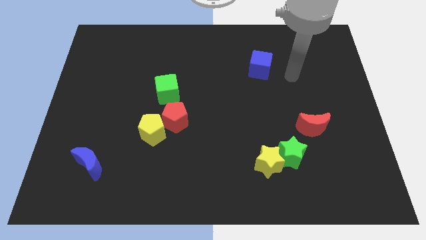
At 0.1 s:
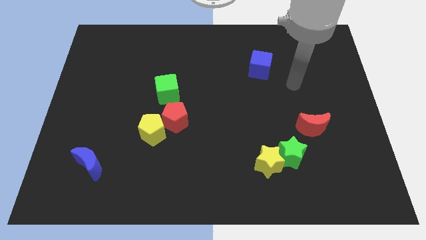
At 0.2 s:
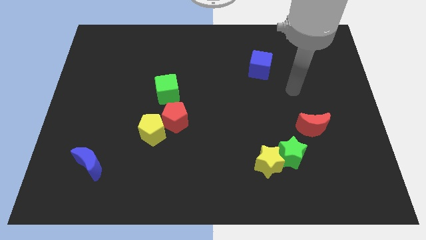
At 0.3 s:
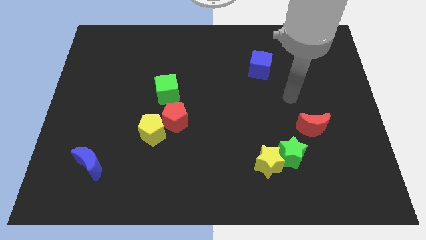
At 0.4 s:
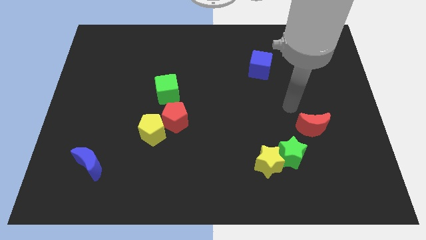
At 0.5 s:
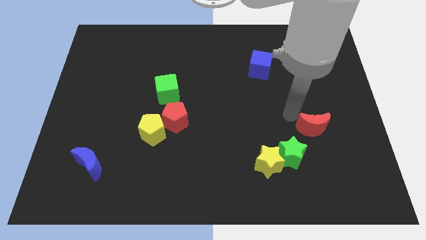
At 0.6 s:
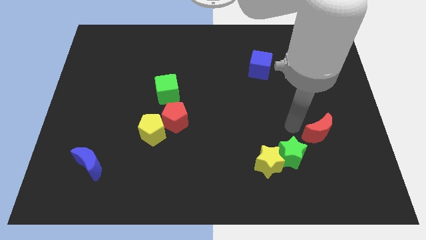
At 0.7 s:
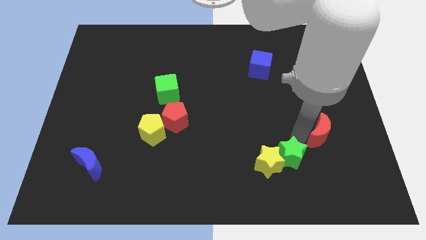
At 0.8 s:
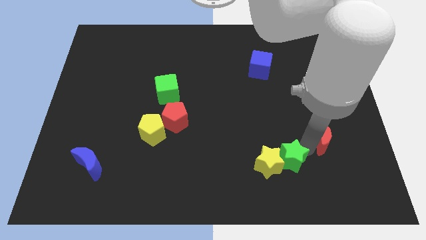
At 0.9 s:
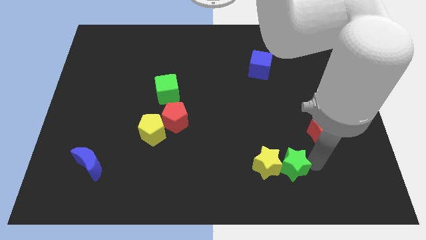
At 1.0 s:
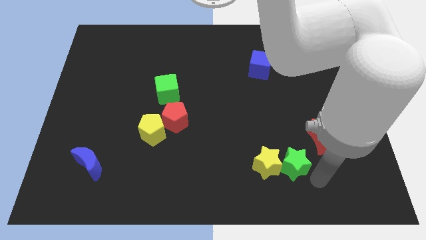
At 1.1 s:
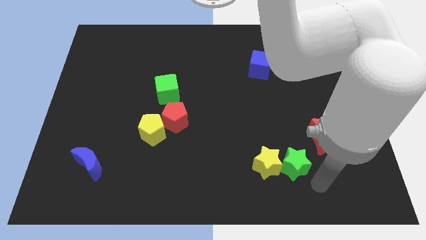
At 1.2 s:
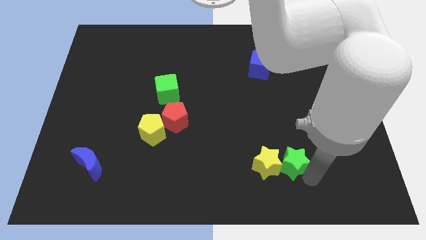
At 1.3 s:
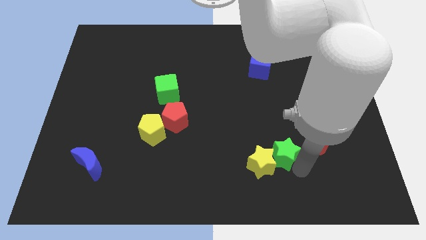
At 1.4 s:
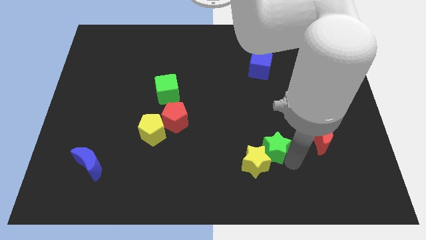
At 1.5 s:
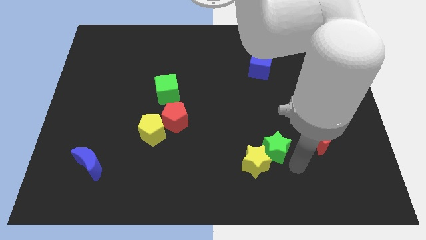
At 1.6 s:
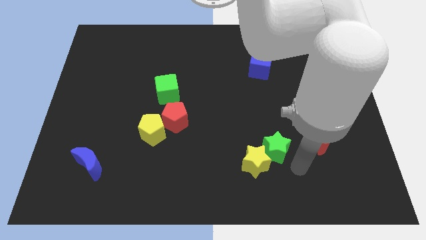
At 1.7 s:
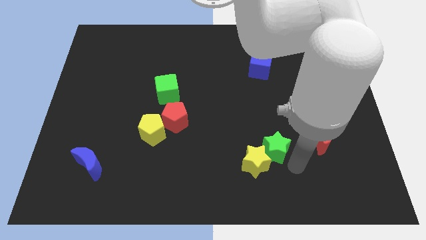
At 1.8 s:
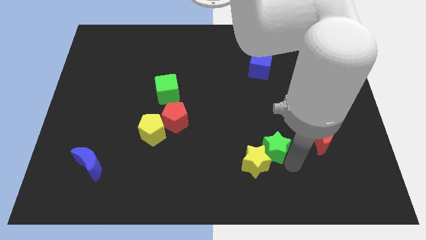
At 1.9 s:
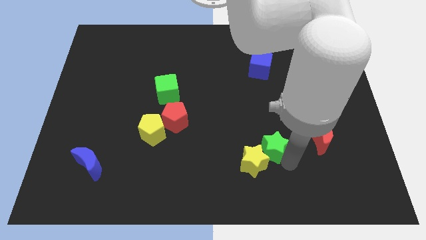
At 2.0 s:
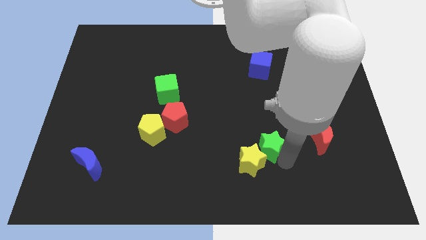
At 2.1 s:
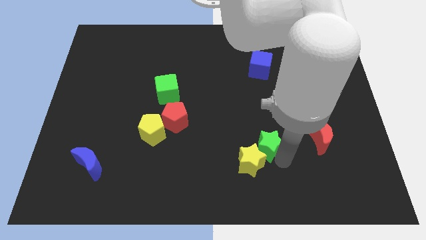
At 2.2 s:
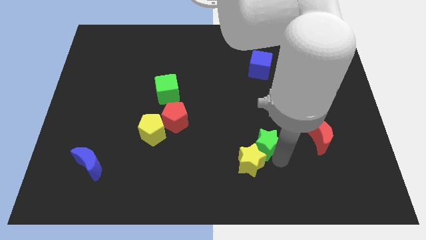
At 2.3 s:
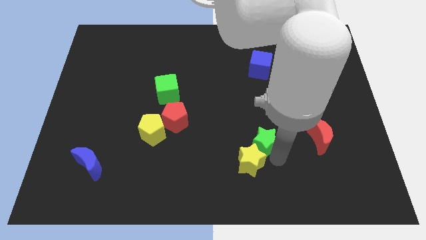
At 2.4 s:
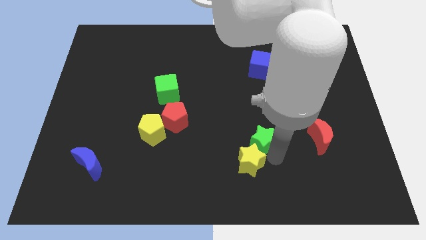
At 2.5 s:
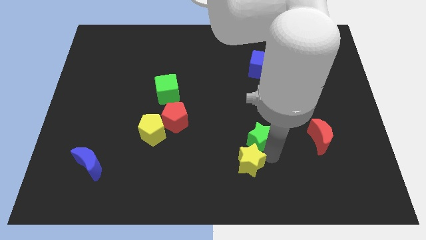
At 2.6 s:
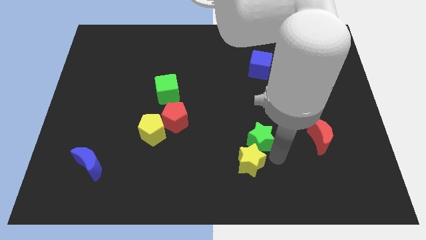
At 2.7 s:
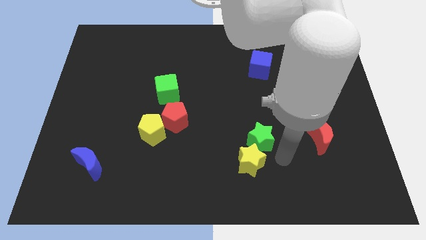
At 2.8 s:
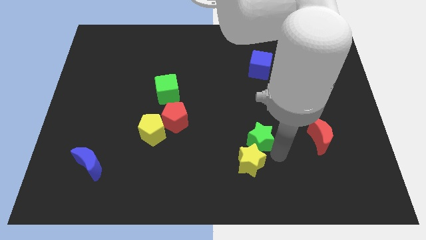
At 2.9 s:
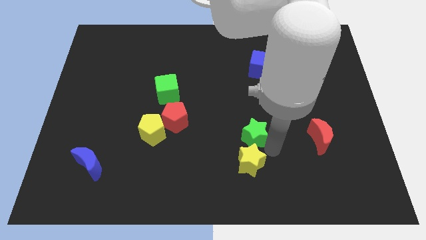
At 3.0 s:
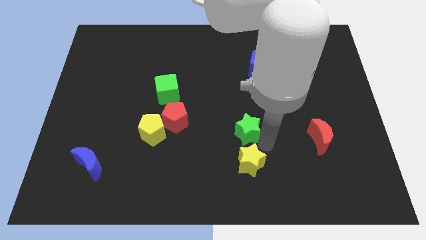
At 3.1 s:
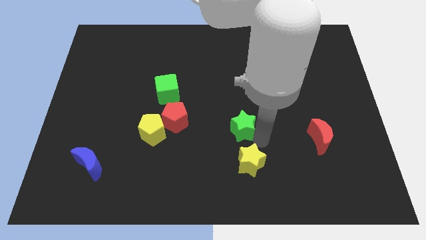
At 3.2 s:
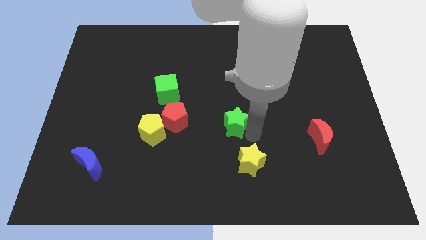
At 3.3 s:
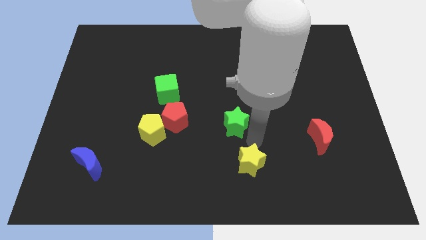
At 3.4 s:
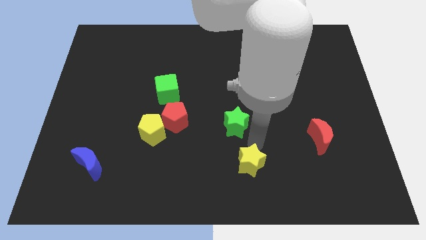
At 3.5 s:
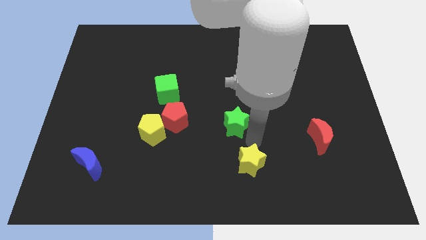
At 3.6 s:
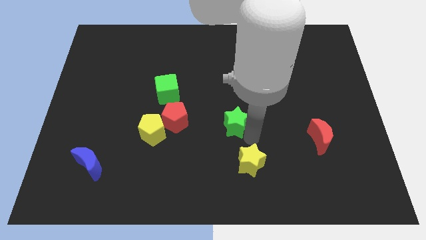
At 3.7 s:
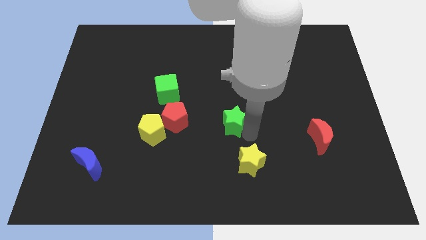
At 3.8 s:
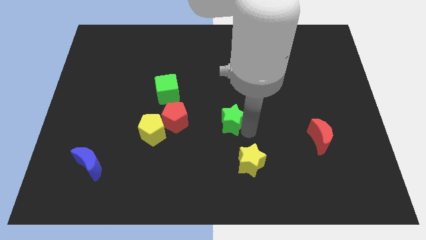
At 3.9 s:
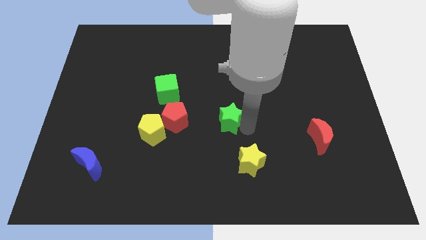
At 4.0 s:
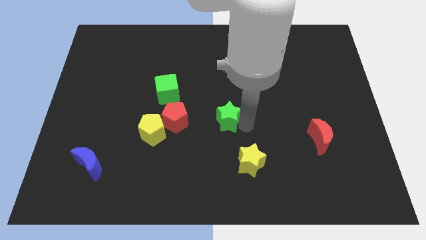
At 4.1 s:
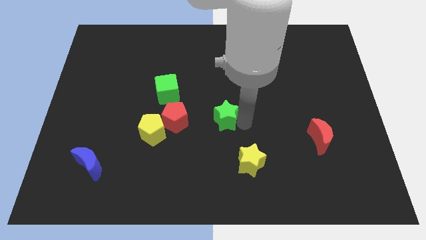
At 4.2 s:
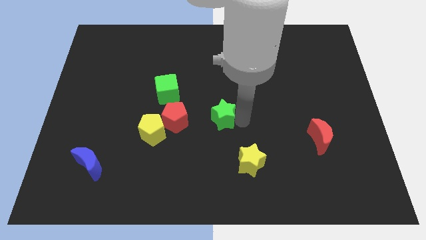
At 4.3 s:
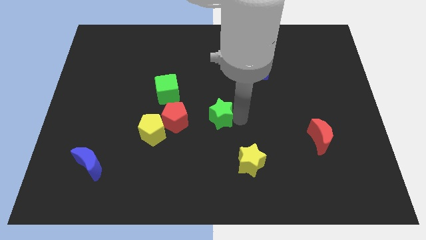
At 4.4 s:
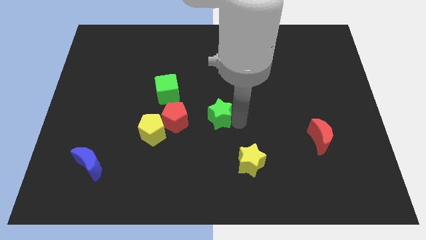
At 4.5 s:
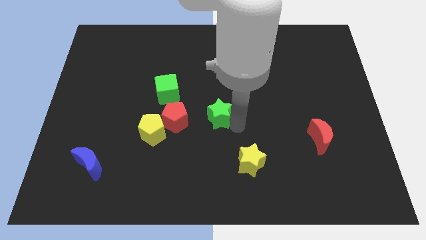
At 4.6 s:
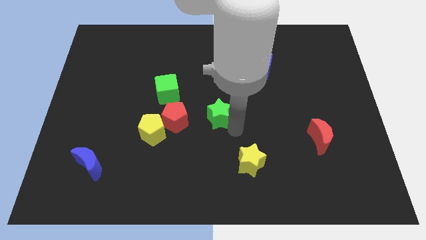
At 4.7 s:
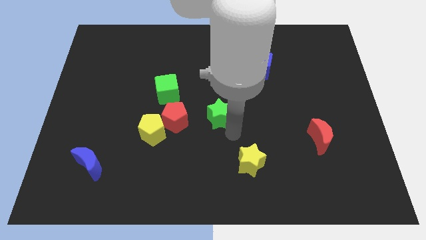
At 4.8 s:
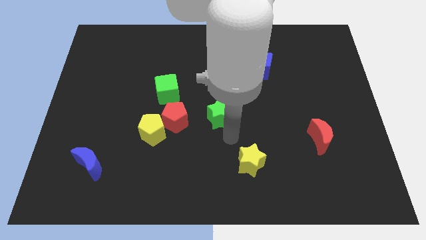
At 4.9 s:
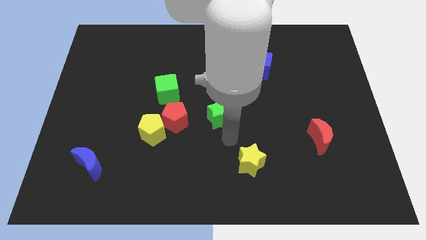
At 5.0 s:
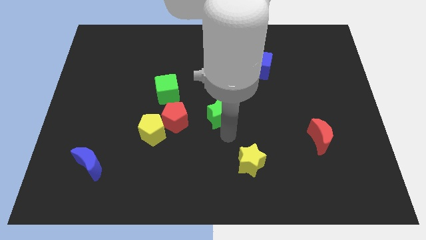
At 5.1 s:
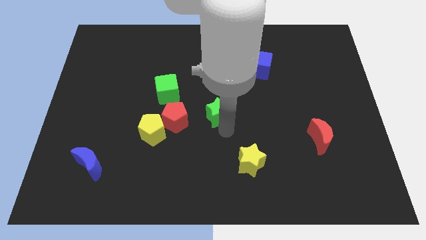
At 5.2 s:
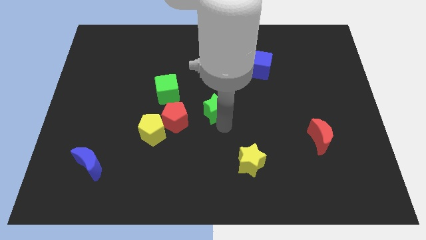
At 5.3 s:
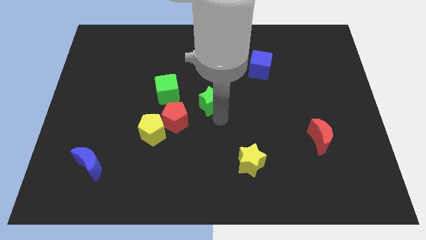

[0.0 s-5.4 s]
slide the green star diagonally up and left

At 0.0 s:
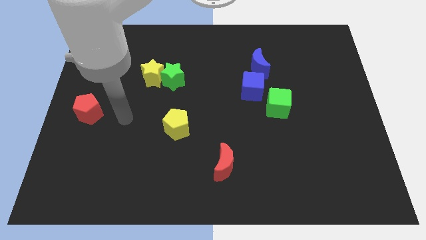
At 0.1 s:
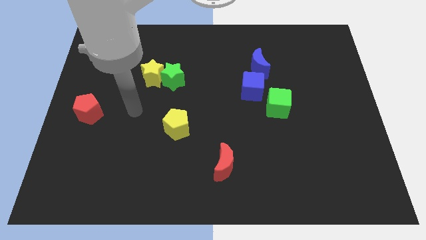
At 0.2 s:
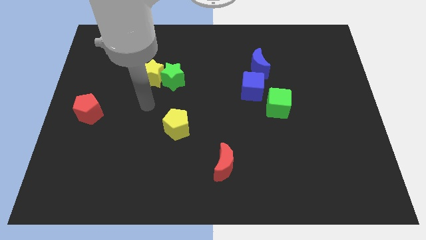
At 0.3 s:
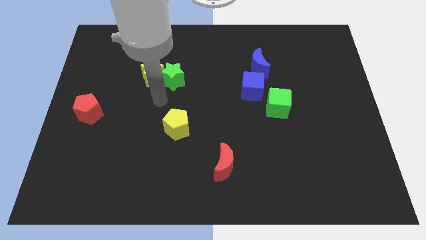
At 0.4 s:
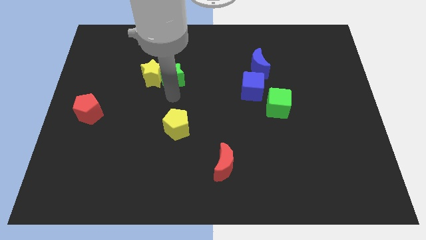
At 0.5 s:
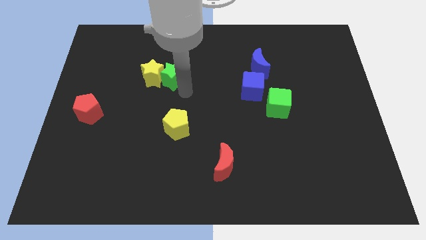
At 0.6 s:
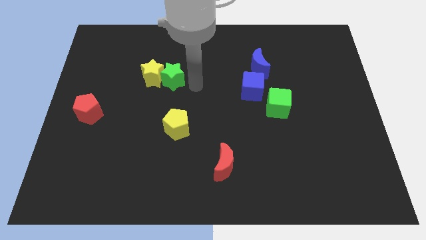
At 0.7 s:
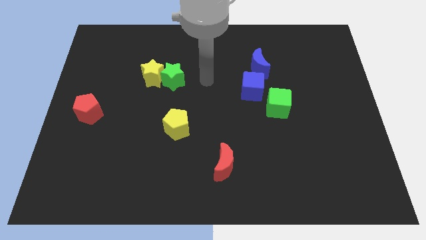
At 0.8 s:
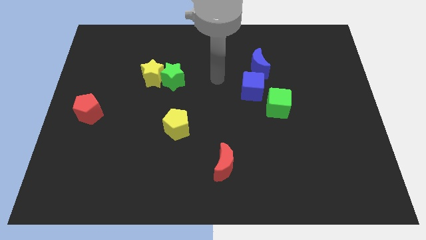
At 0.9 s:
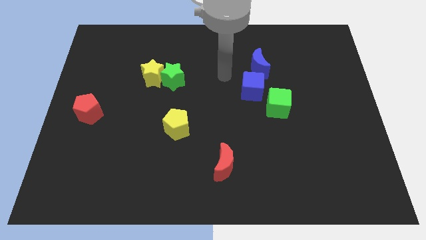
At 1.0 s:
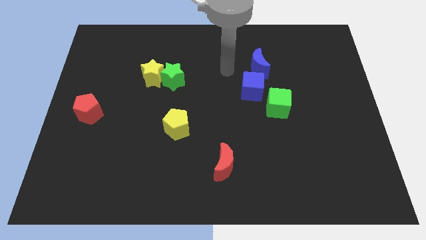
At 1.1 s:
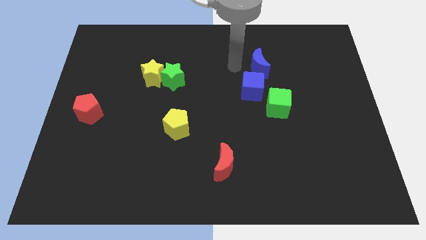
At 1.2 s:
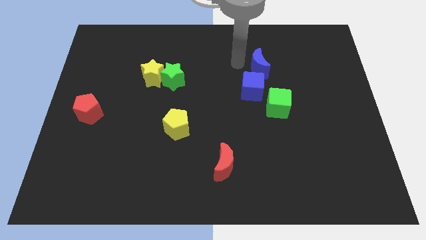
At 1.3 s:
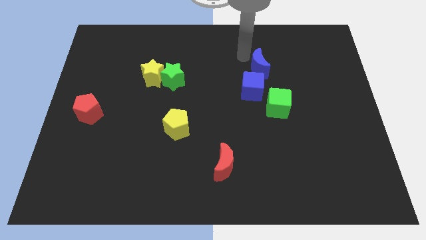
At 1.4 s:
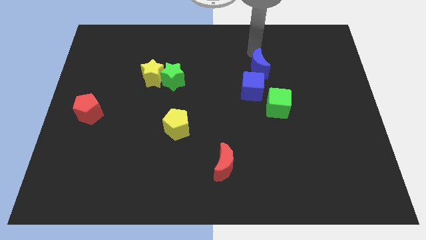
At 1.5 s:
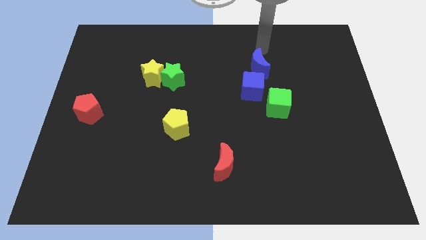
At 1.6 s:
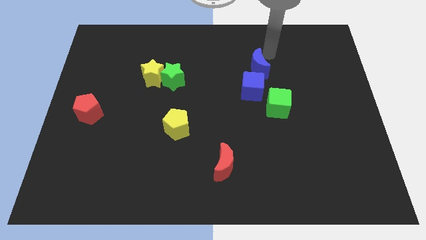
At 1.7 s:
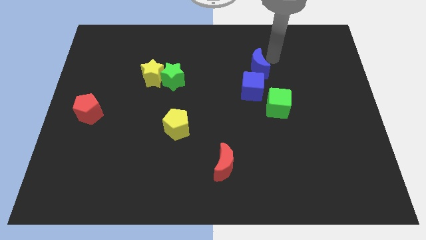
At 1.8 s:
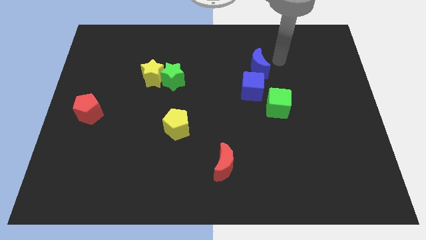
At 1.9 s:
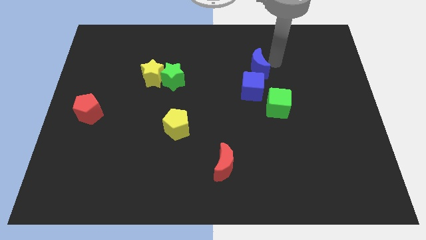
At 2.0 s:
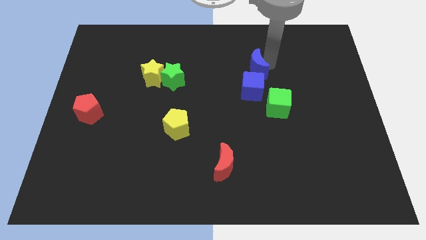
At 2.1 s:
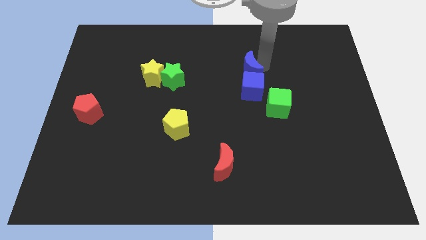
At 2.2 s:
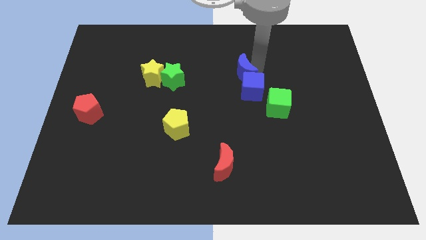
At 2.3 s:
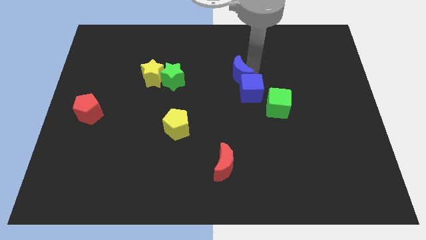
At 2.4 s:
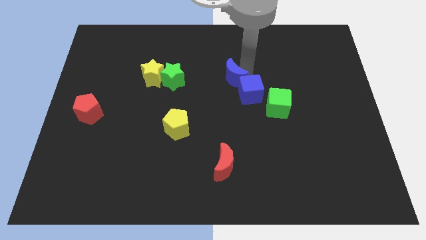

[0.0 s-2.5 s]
slightly slide the blue moon down and then left
